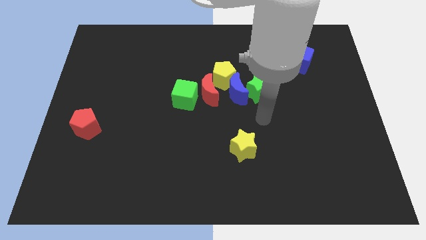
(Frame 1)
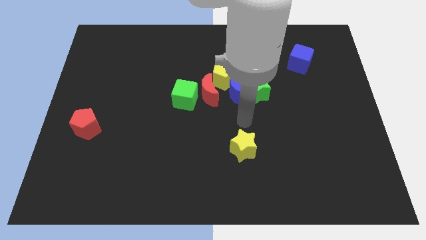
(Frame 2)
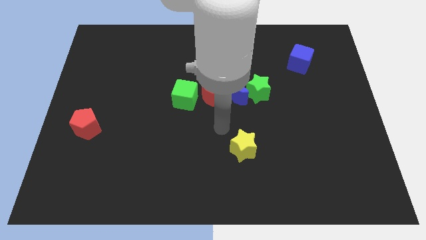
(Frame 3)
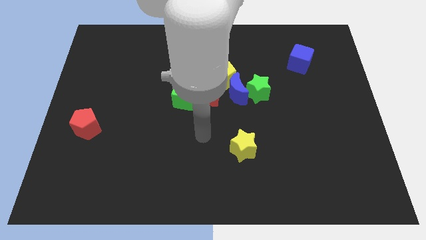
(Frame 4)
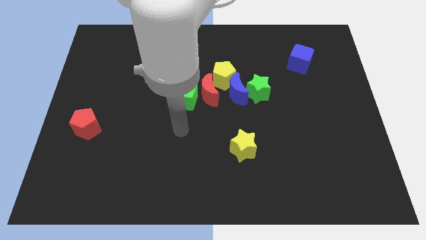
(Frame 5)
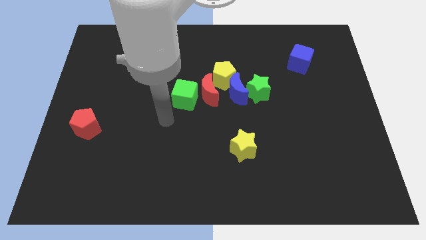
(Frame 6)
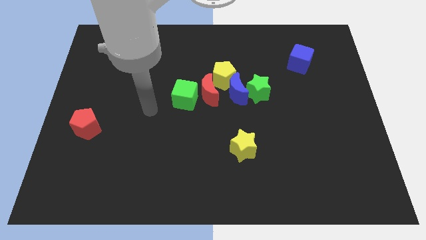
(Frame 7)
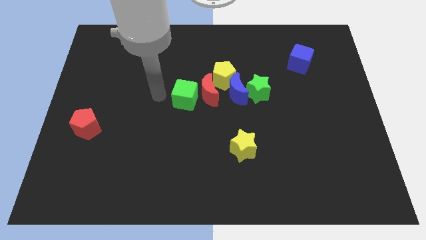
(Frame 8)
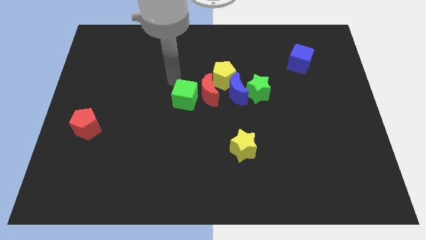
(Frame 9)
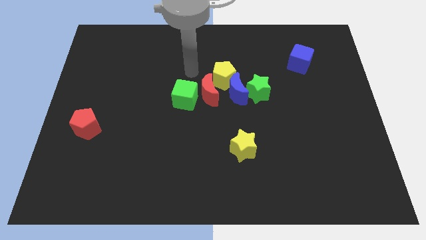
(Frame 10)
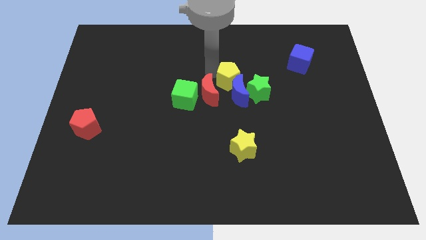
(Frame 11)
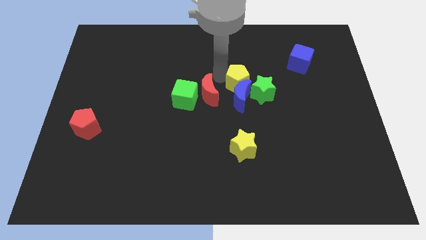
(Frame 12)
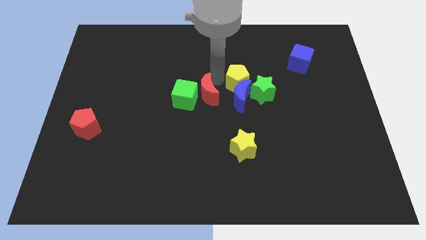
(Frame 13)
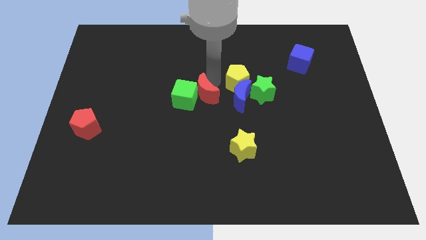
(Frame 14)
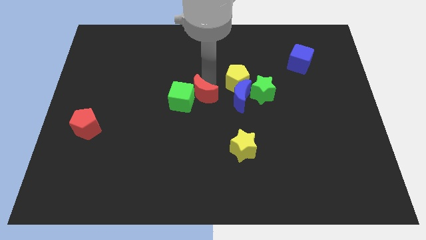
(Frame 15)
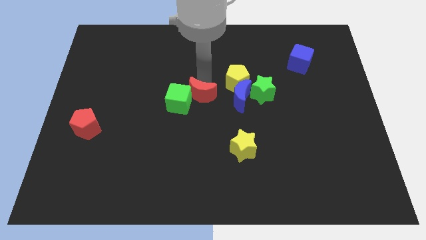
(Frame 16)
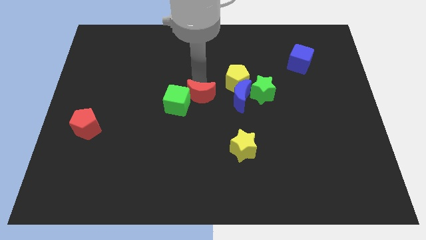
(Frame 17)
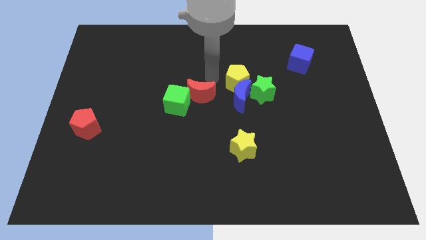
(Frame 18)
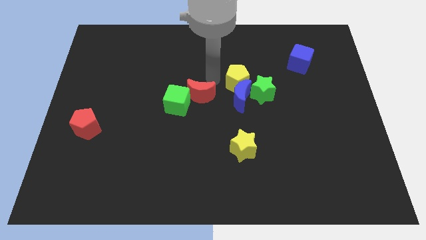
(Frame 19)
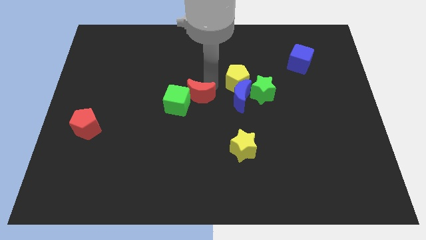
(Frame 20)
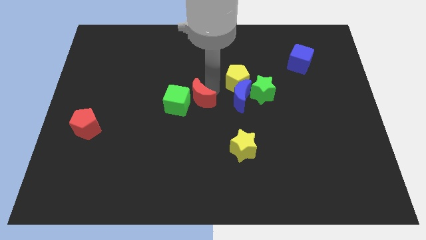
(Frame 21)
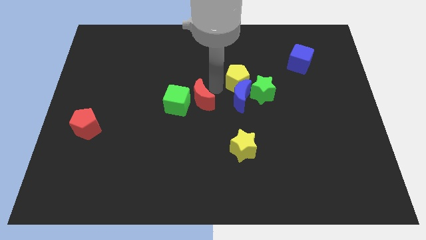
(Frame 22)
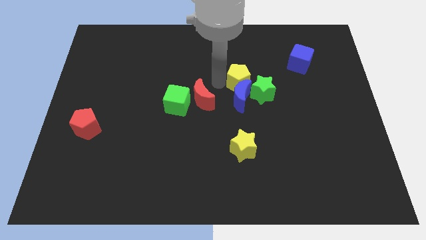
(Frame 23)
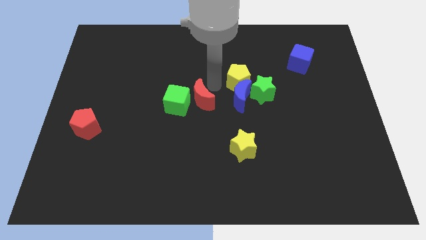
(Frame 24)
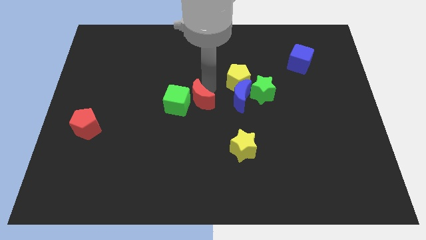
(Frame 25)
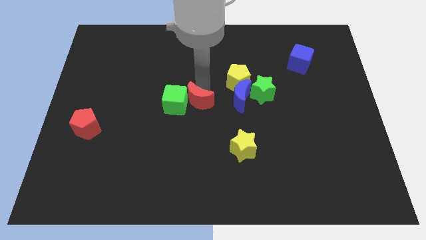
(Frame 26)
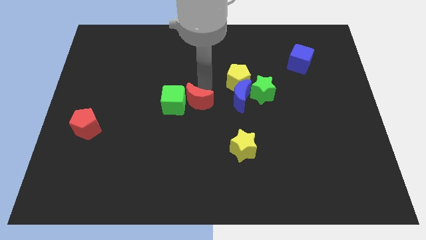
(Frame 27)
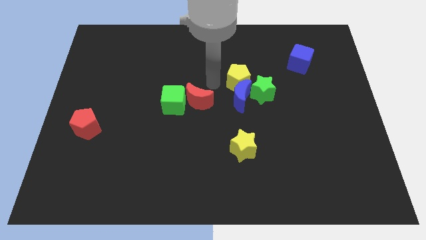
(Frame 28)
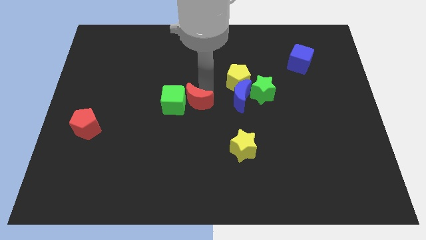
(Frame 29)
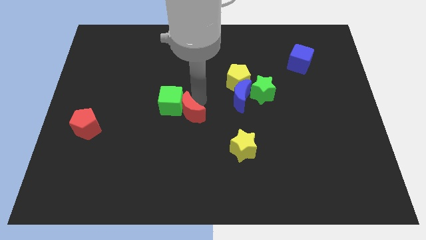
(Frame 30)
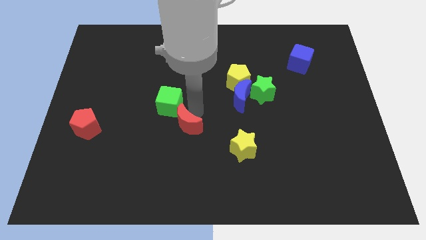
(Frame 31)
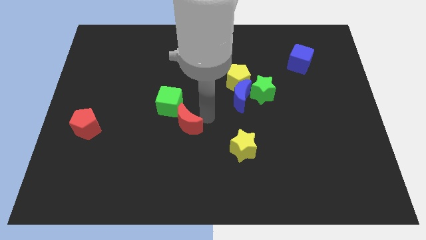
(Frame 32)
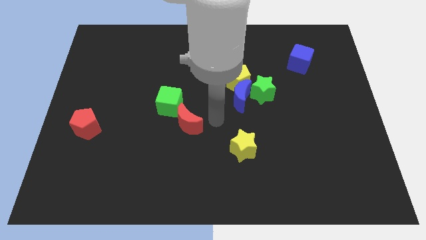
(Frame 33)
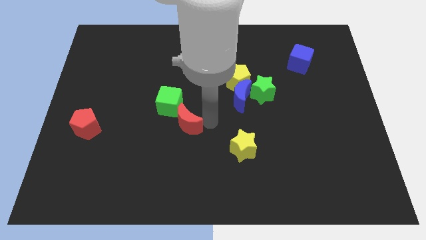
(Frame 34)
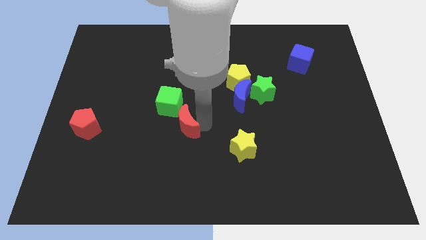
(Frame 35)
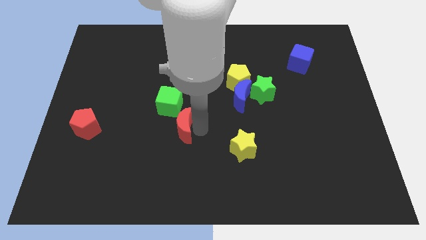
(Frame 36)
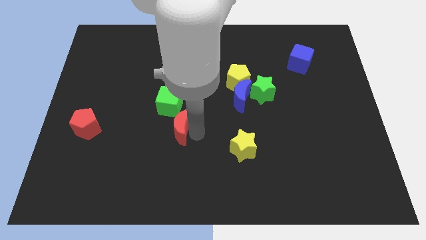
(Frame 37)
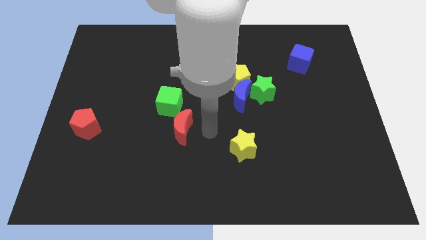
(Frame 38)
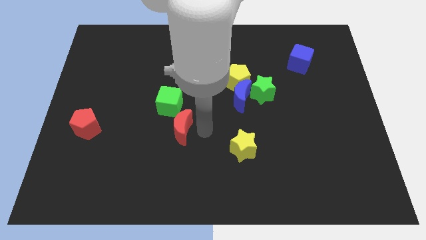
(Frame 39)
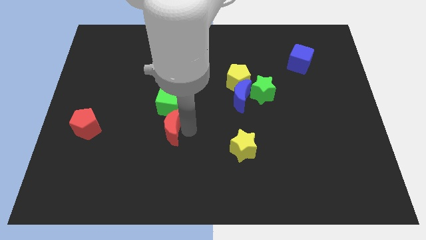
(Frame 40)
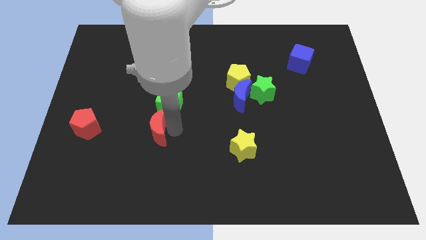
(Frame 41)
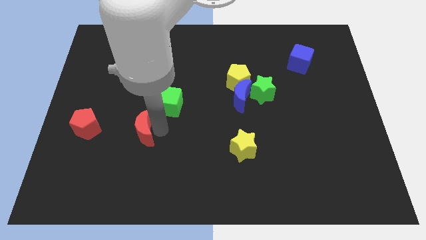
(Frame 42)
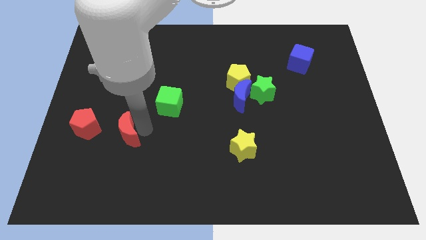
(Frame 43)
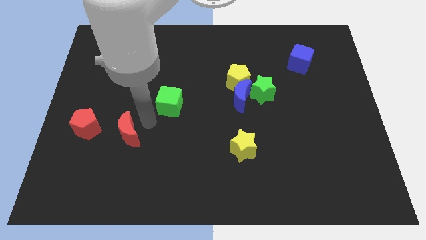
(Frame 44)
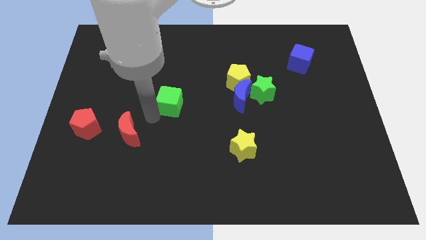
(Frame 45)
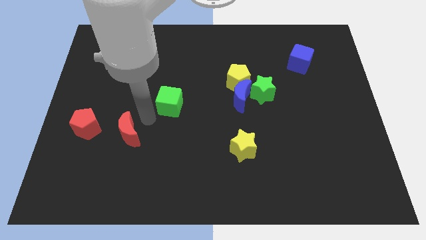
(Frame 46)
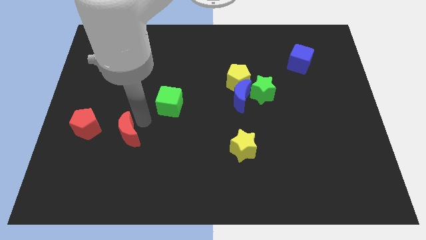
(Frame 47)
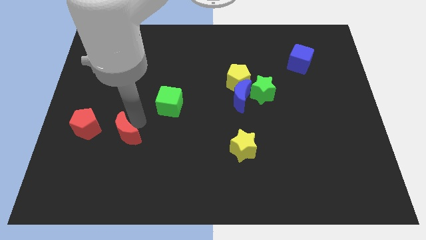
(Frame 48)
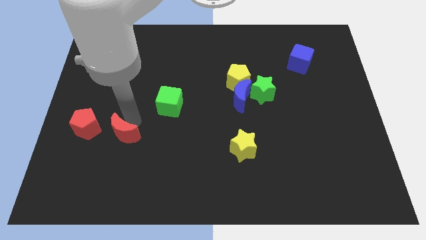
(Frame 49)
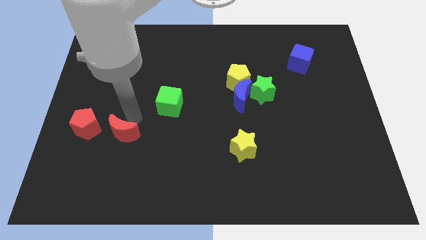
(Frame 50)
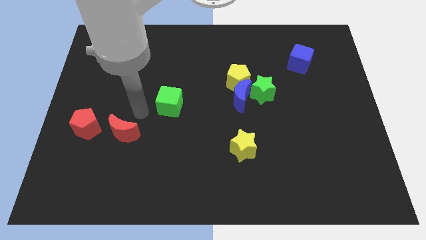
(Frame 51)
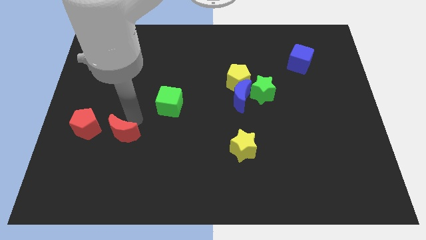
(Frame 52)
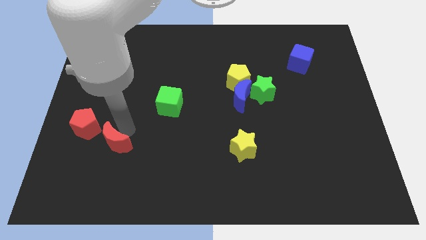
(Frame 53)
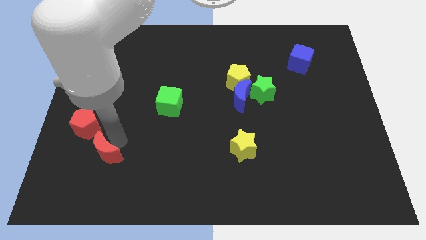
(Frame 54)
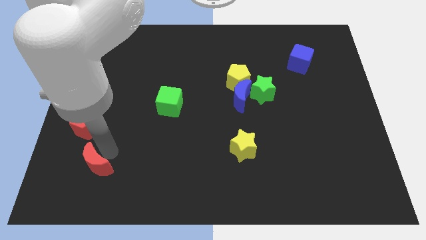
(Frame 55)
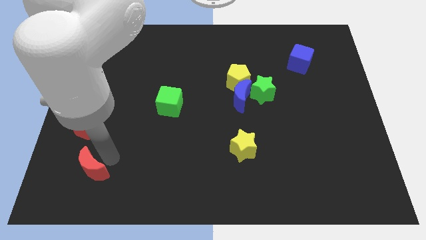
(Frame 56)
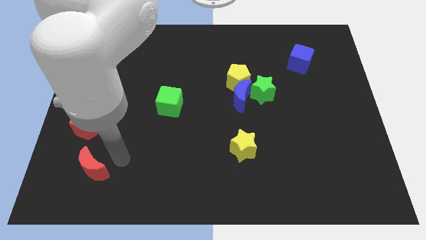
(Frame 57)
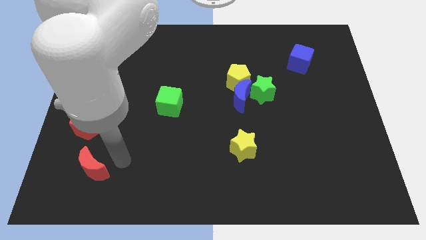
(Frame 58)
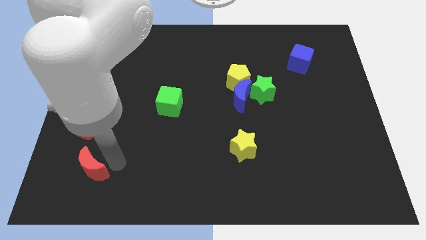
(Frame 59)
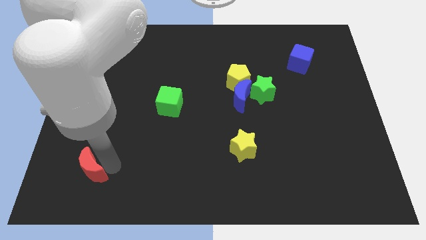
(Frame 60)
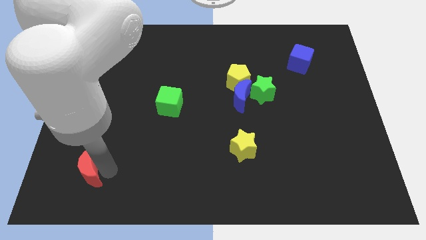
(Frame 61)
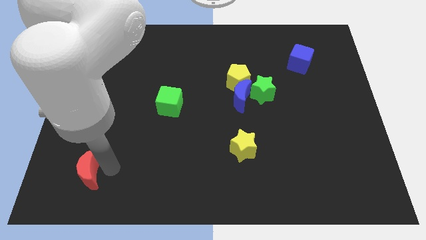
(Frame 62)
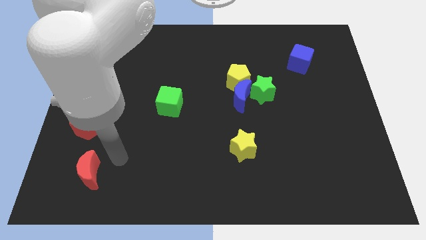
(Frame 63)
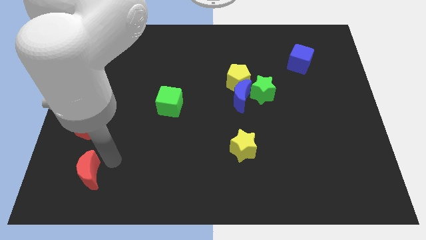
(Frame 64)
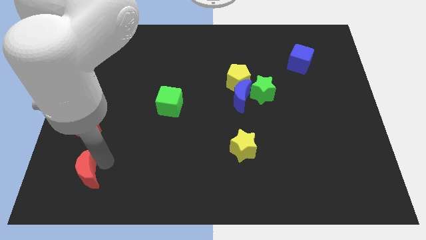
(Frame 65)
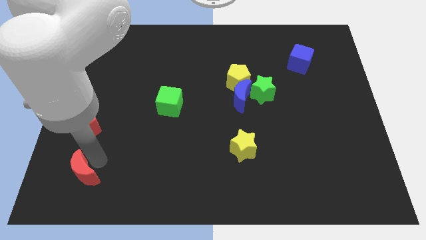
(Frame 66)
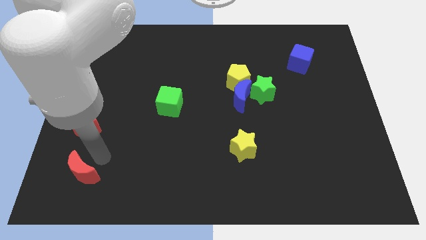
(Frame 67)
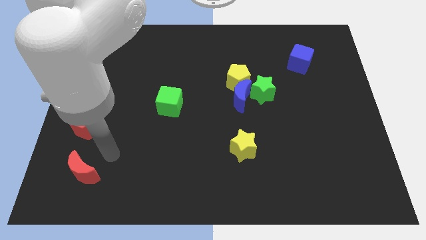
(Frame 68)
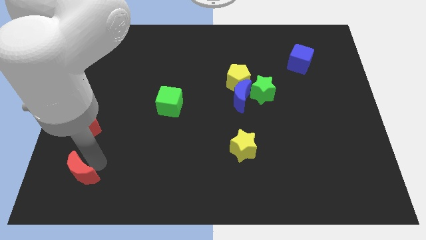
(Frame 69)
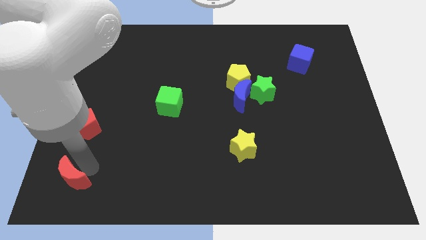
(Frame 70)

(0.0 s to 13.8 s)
slide the red moon to the bottom left of the board
